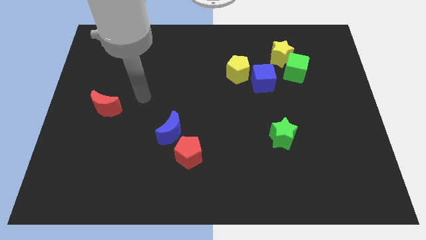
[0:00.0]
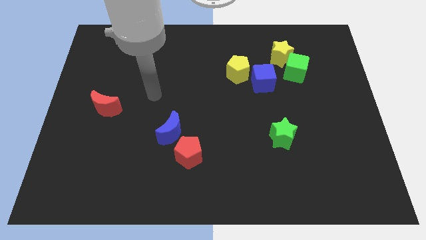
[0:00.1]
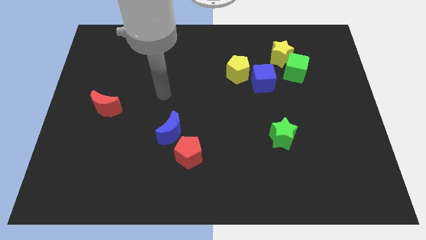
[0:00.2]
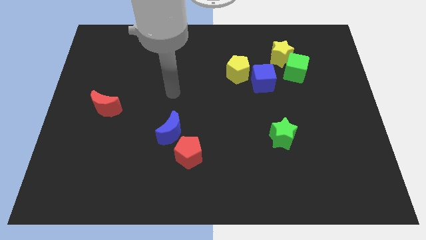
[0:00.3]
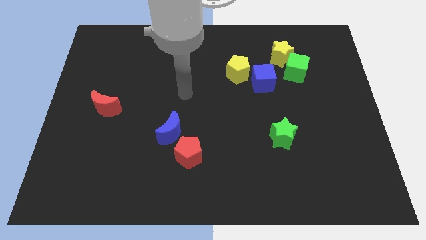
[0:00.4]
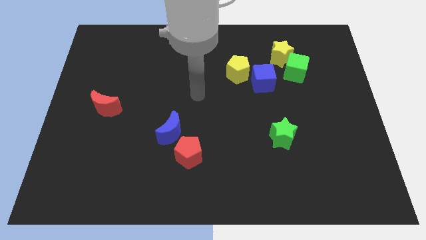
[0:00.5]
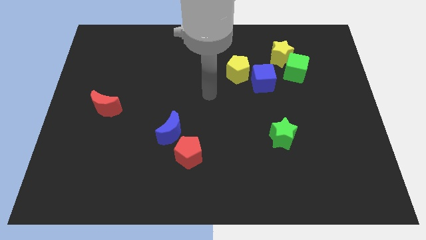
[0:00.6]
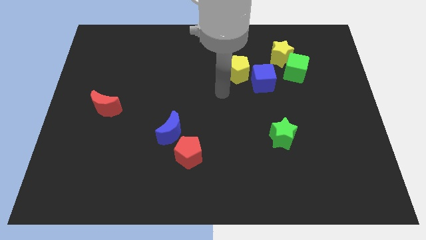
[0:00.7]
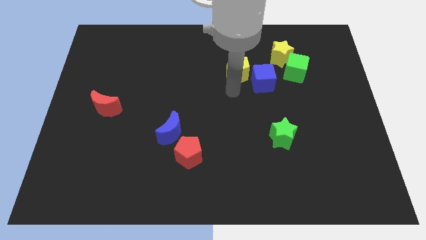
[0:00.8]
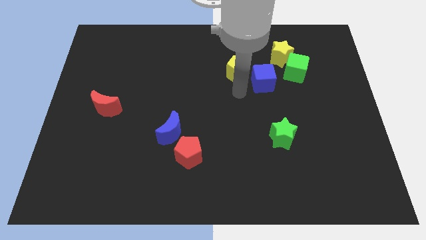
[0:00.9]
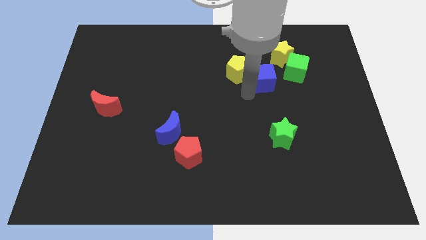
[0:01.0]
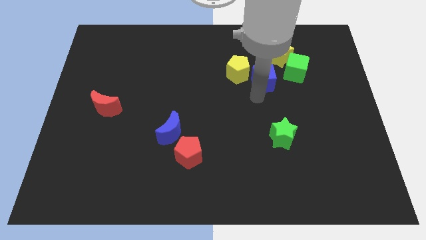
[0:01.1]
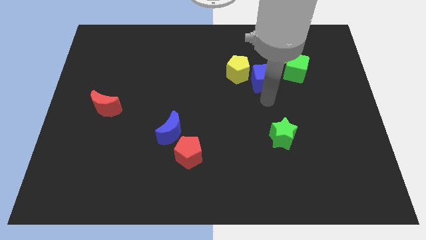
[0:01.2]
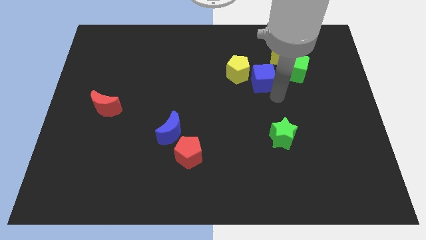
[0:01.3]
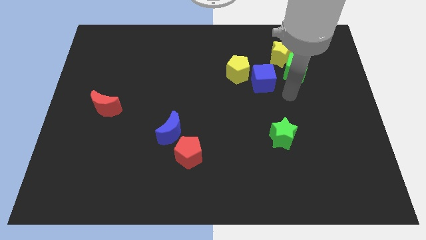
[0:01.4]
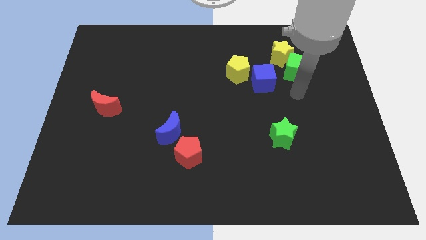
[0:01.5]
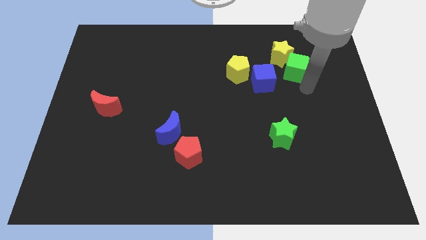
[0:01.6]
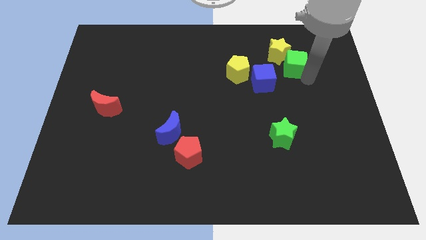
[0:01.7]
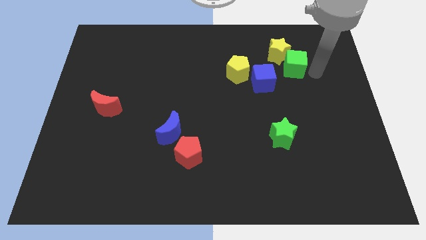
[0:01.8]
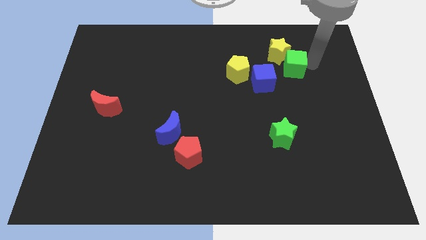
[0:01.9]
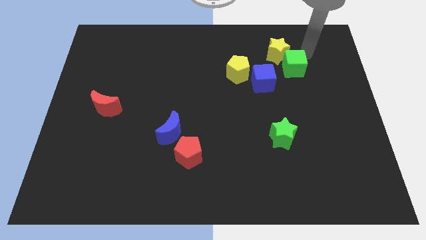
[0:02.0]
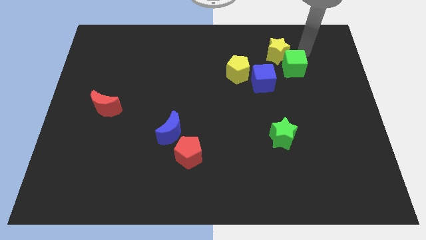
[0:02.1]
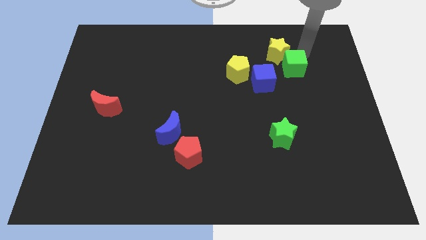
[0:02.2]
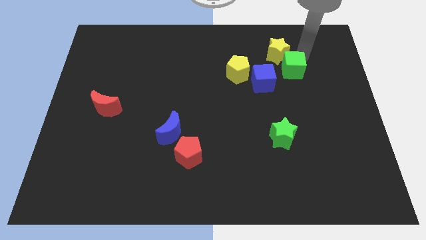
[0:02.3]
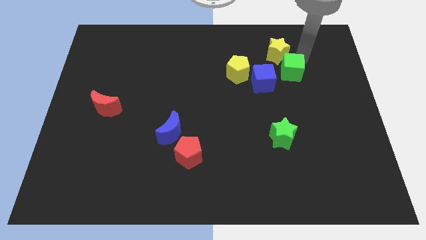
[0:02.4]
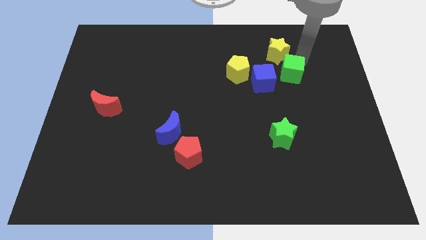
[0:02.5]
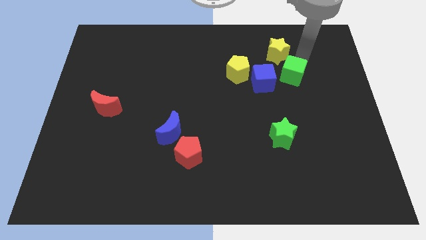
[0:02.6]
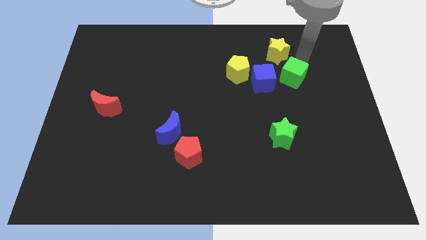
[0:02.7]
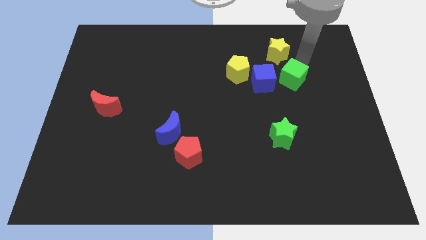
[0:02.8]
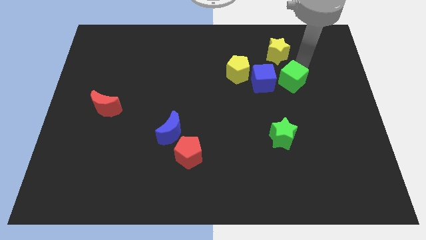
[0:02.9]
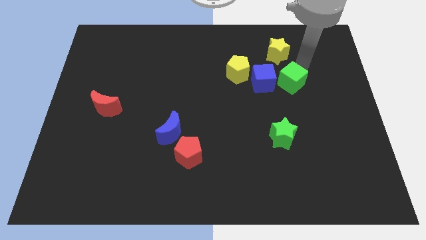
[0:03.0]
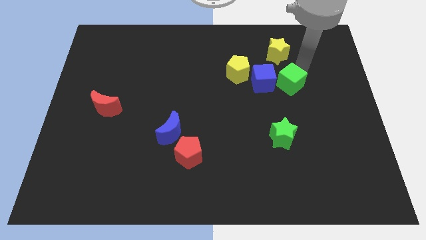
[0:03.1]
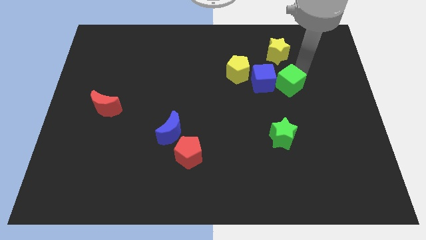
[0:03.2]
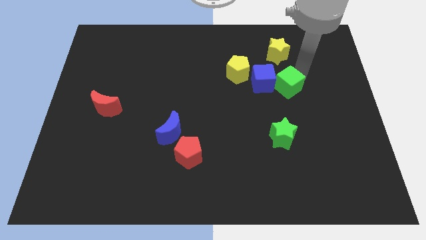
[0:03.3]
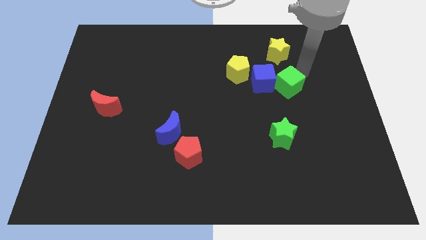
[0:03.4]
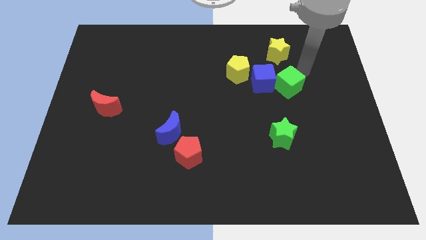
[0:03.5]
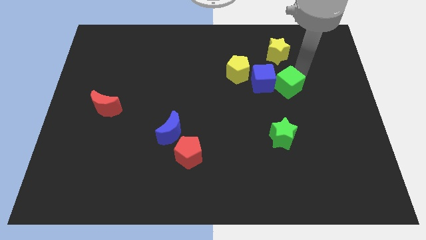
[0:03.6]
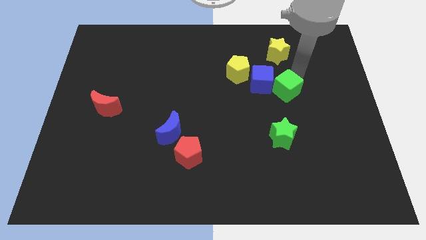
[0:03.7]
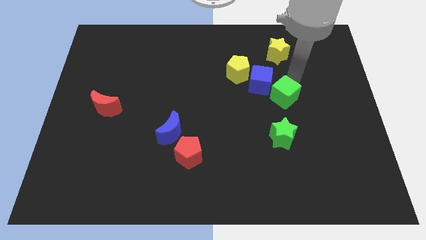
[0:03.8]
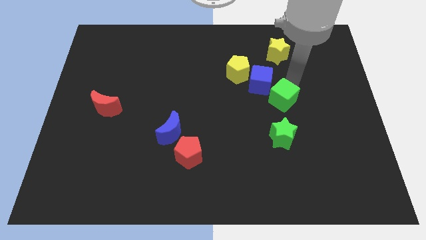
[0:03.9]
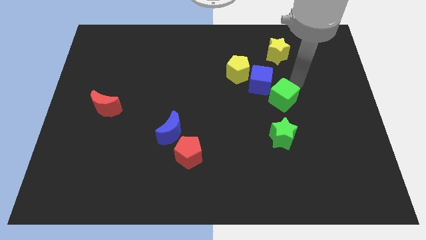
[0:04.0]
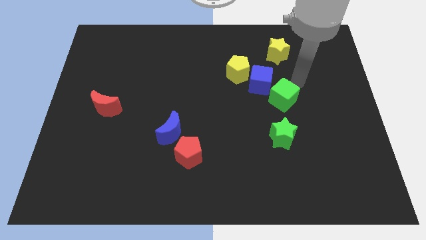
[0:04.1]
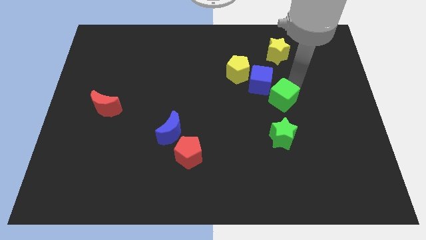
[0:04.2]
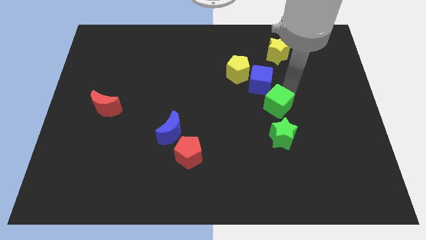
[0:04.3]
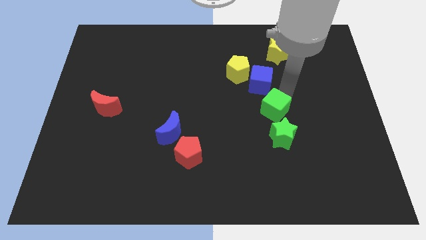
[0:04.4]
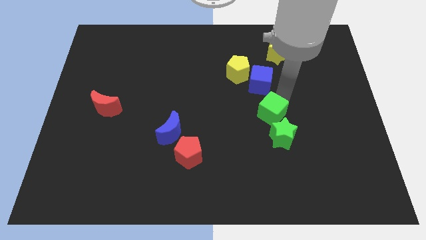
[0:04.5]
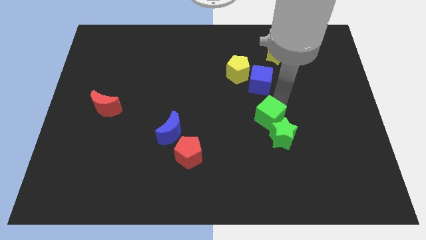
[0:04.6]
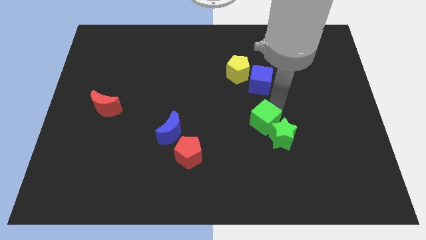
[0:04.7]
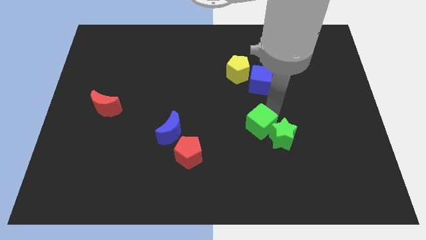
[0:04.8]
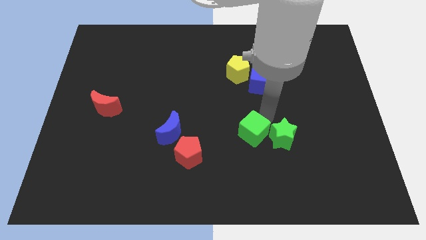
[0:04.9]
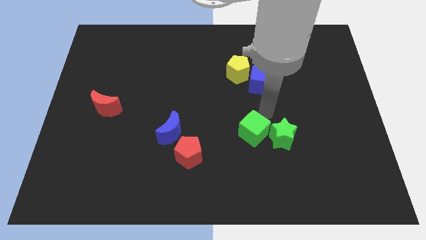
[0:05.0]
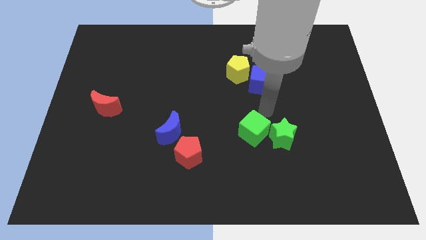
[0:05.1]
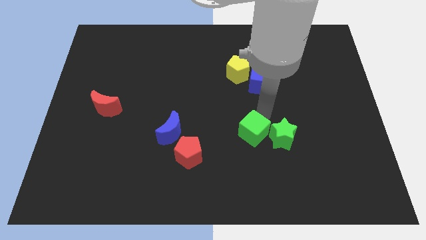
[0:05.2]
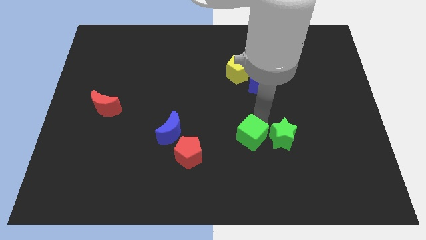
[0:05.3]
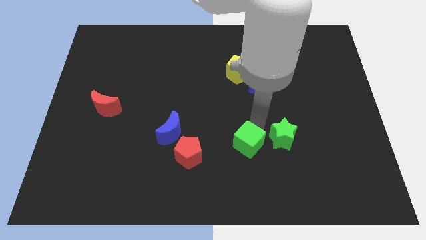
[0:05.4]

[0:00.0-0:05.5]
slide the green cube to the right of the red pentagon

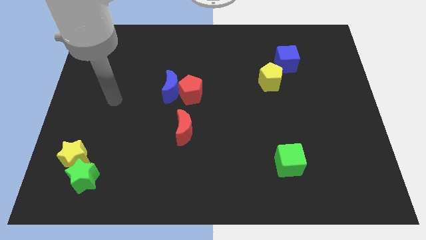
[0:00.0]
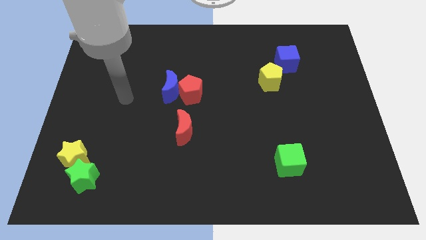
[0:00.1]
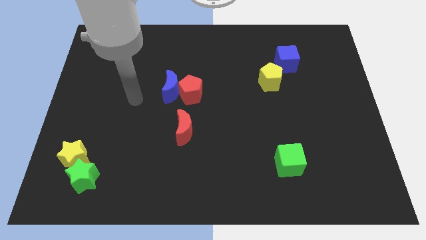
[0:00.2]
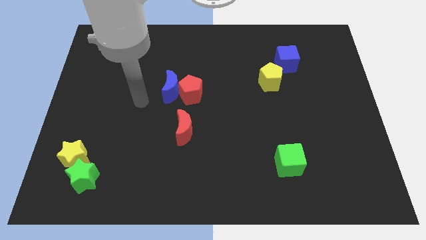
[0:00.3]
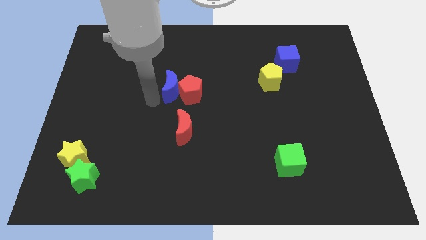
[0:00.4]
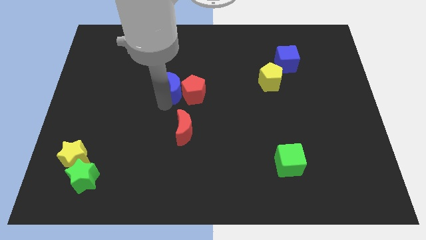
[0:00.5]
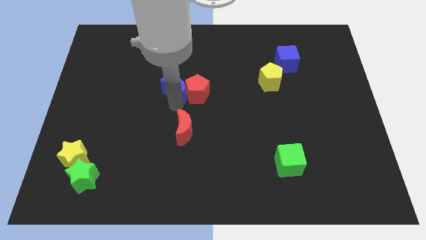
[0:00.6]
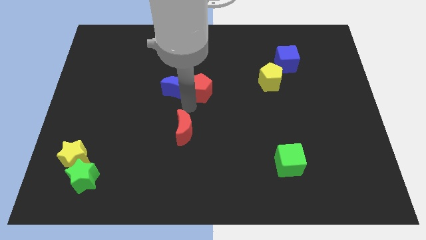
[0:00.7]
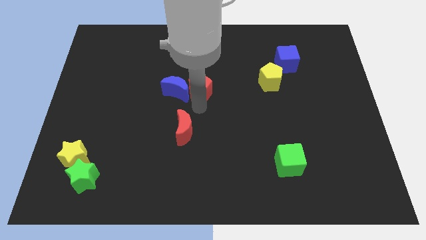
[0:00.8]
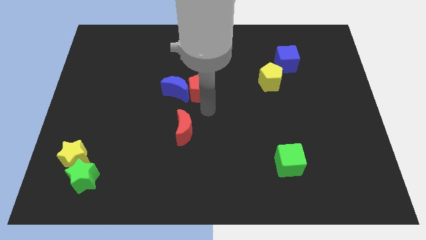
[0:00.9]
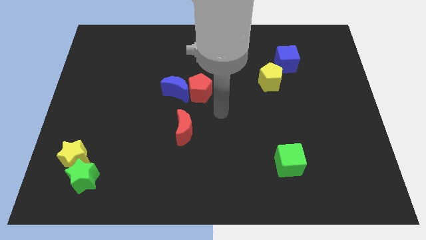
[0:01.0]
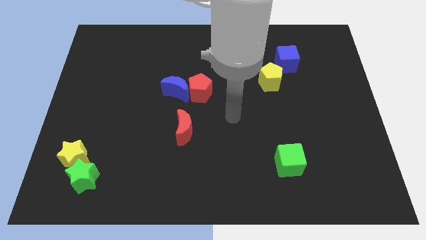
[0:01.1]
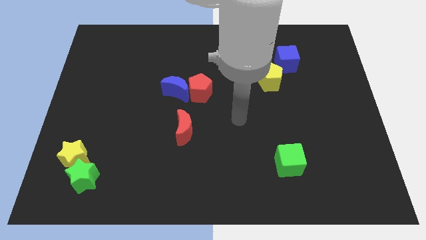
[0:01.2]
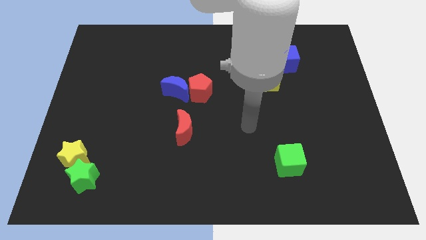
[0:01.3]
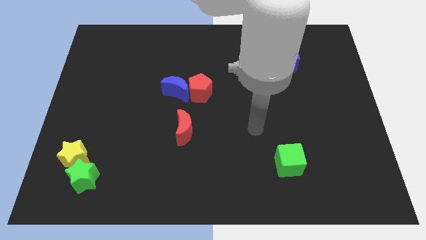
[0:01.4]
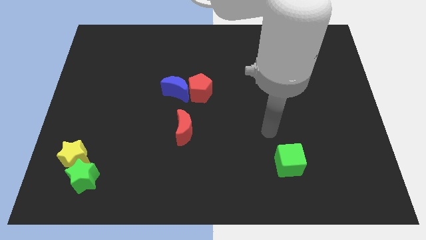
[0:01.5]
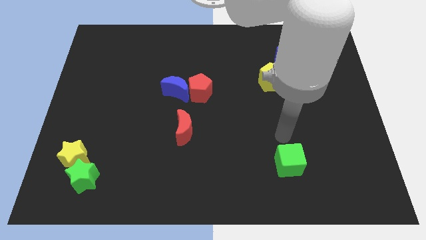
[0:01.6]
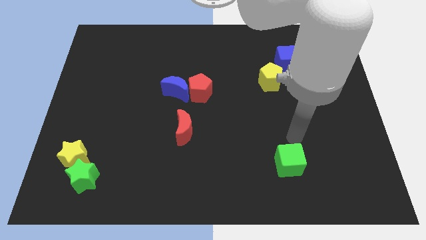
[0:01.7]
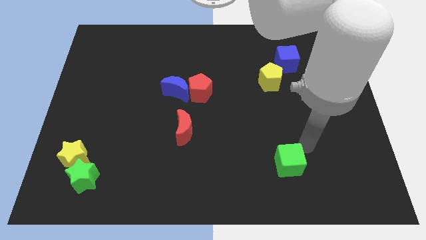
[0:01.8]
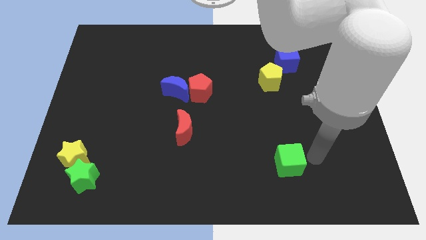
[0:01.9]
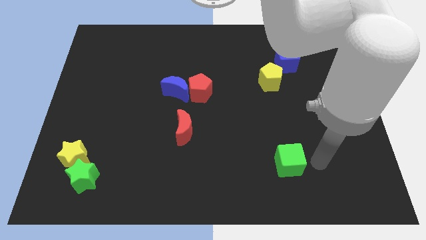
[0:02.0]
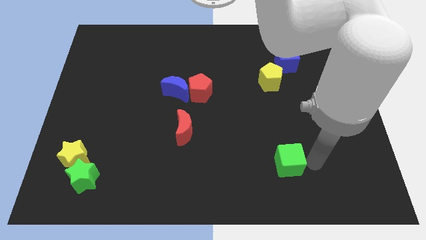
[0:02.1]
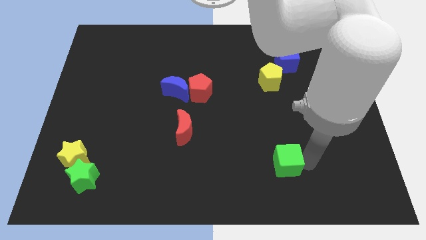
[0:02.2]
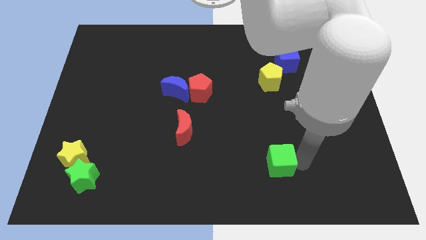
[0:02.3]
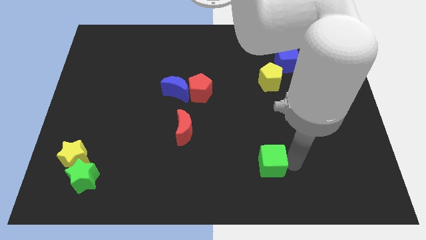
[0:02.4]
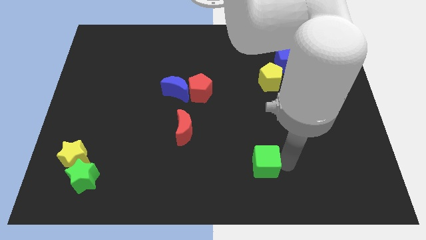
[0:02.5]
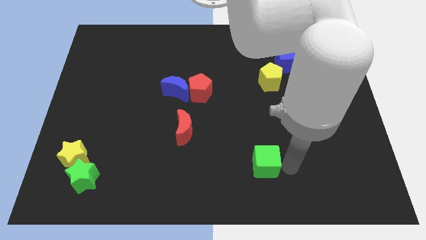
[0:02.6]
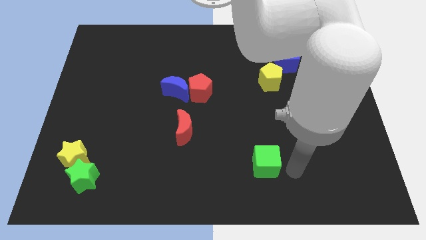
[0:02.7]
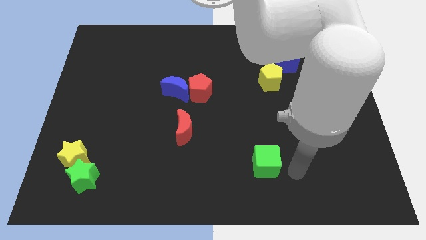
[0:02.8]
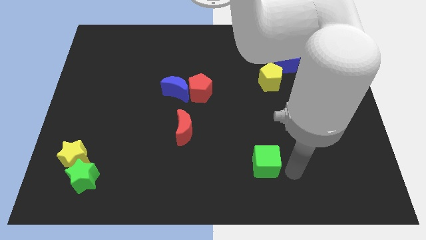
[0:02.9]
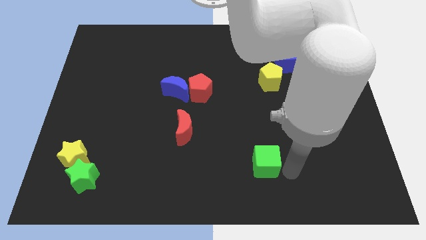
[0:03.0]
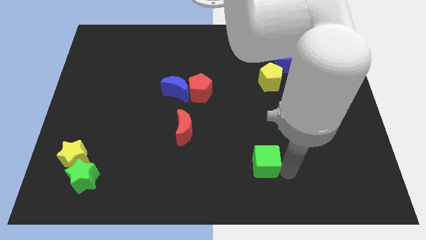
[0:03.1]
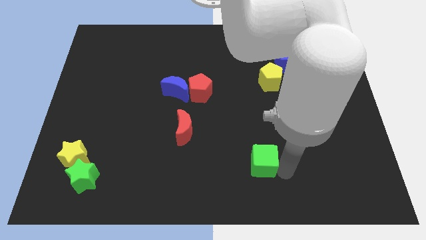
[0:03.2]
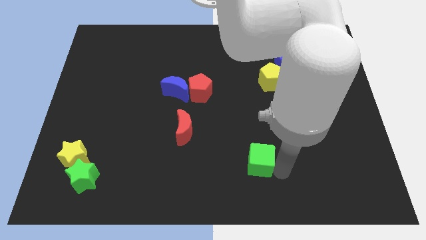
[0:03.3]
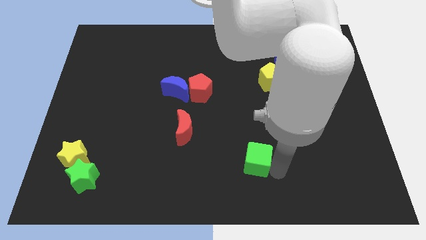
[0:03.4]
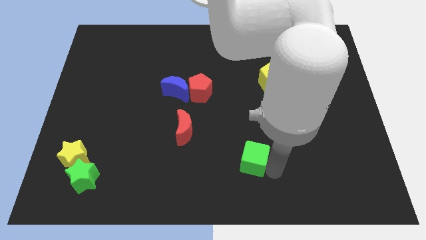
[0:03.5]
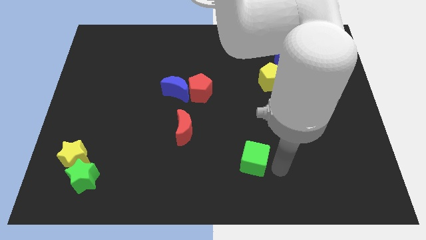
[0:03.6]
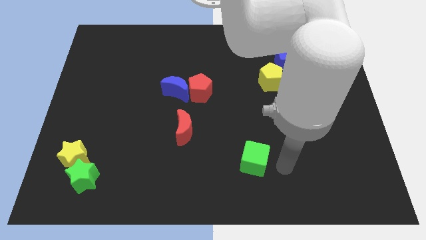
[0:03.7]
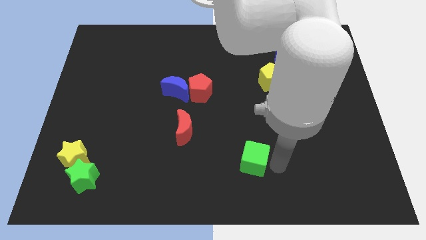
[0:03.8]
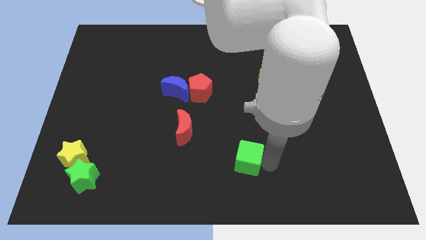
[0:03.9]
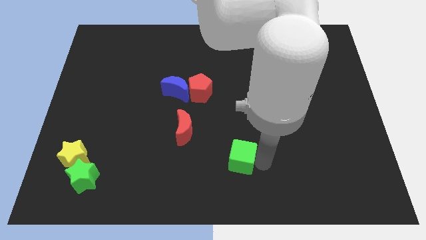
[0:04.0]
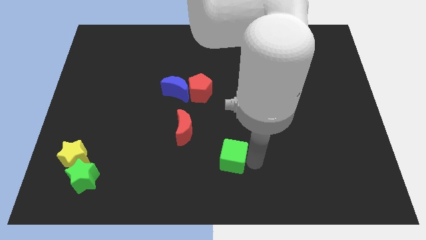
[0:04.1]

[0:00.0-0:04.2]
slide the green cube diagonally down and to the right of the red moon
